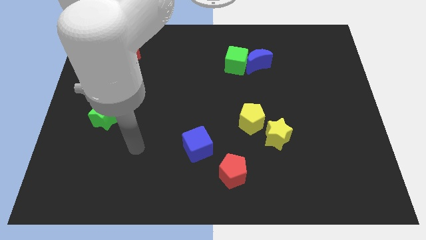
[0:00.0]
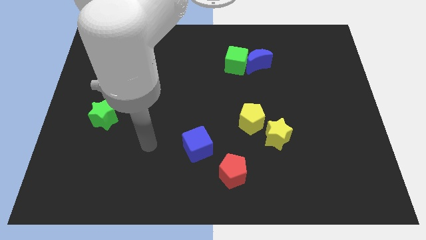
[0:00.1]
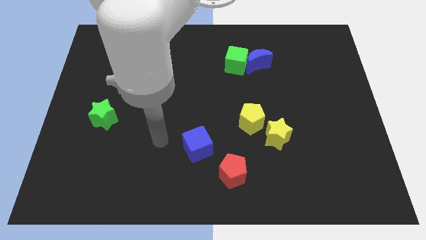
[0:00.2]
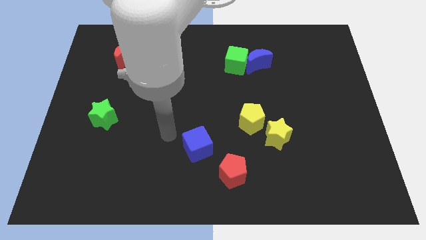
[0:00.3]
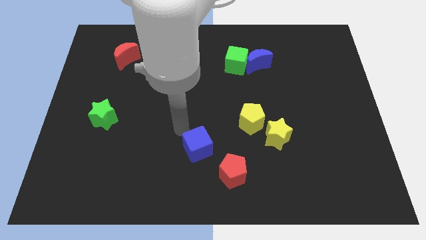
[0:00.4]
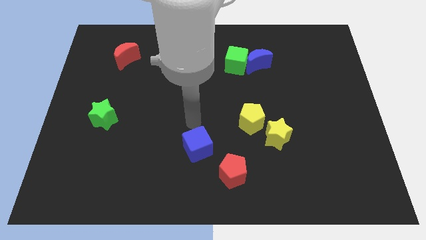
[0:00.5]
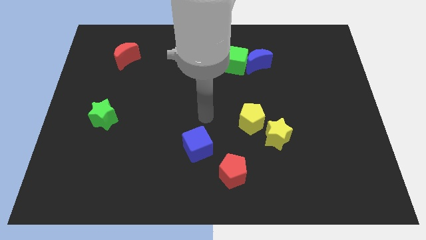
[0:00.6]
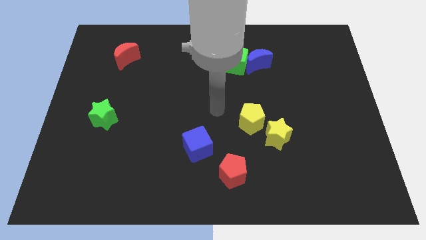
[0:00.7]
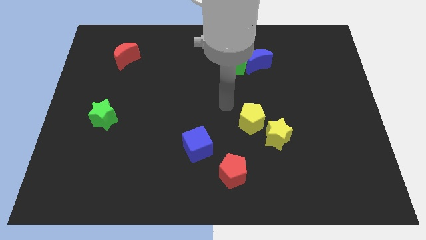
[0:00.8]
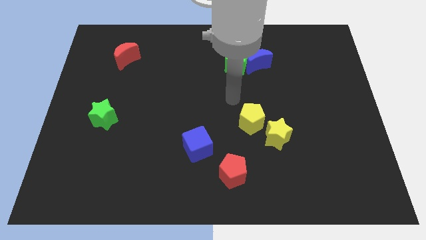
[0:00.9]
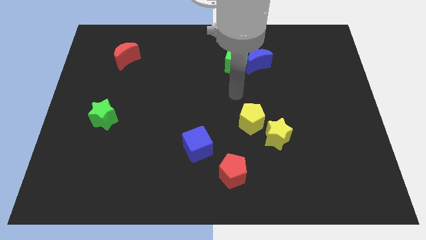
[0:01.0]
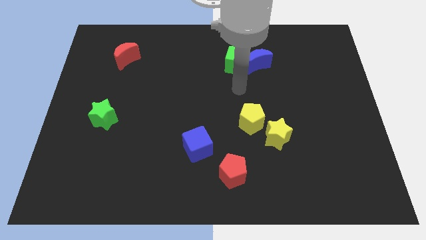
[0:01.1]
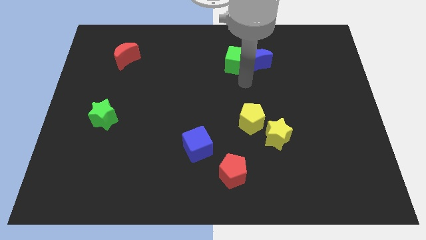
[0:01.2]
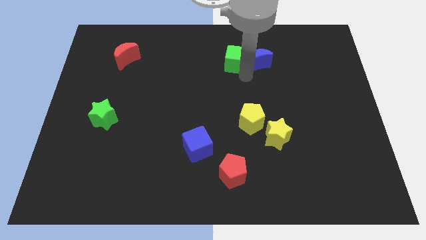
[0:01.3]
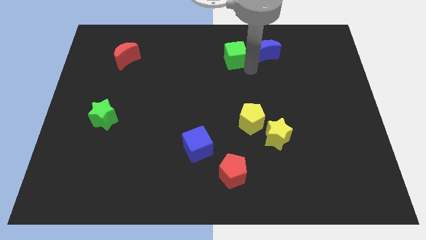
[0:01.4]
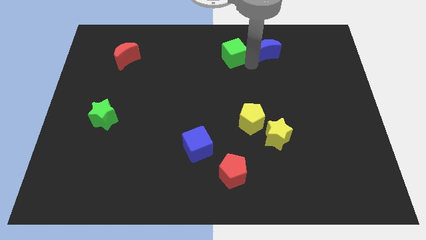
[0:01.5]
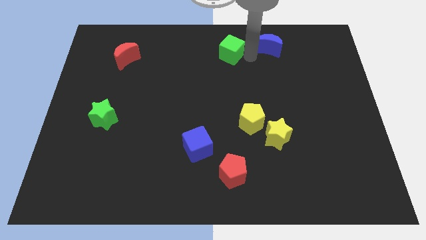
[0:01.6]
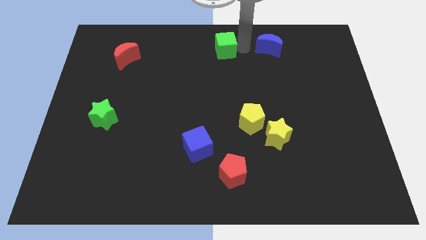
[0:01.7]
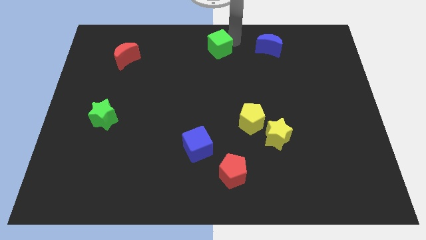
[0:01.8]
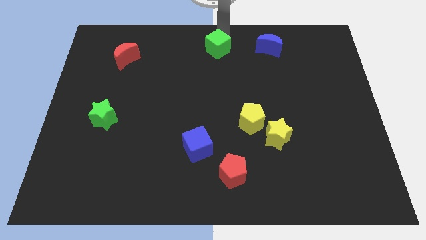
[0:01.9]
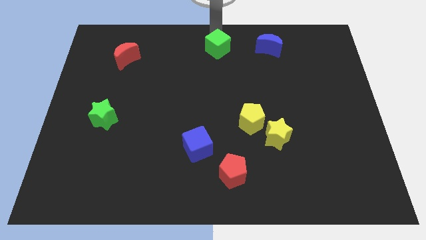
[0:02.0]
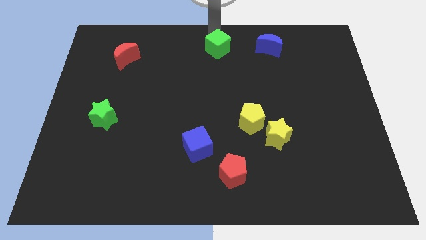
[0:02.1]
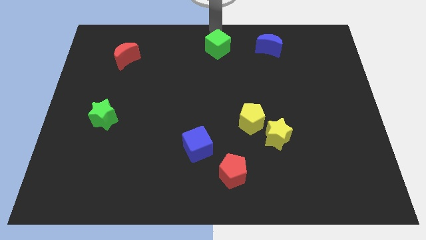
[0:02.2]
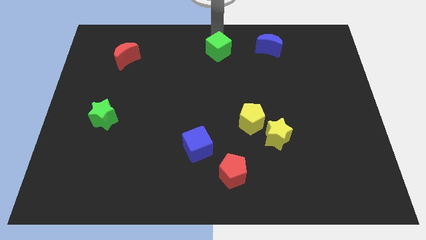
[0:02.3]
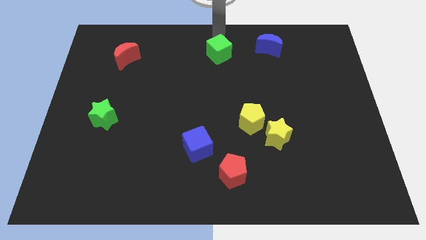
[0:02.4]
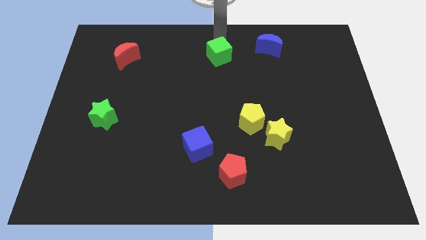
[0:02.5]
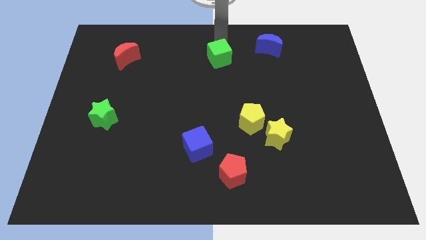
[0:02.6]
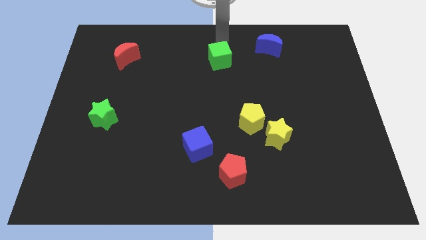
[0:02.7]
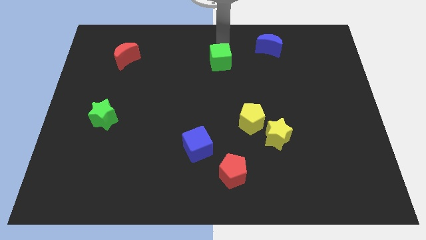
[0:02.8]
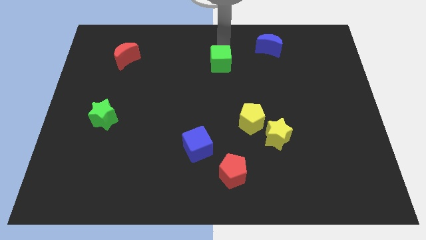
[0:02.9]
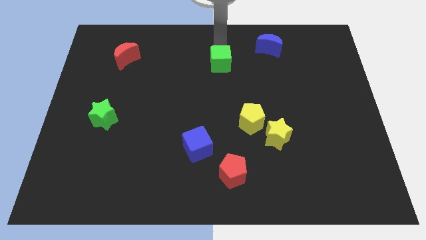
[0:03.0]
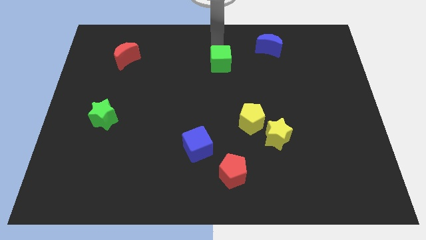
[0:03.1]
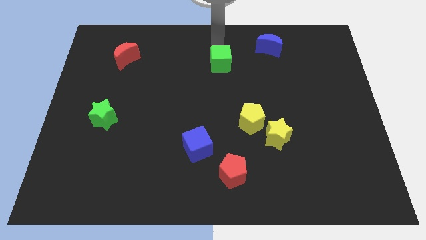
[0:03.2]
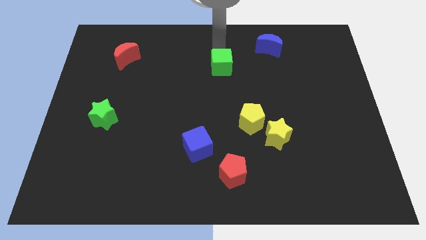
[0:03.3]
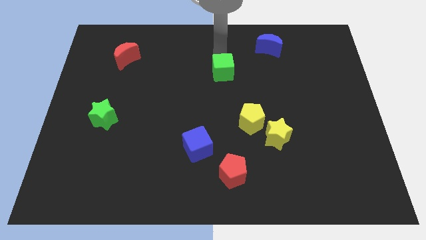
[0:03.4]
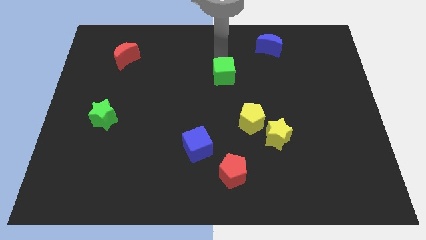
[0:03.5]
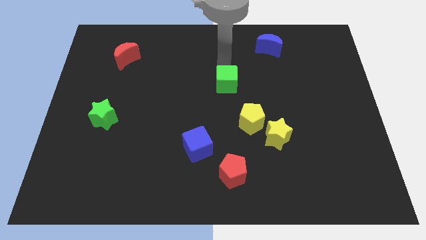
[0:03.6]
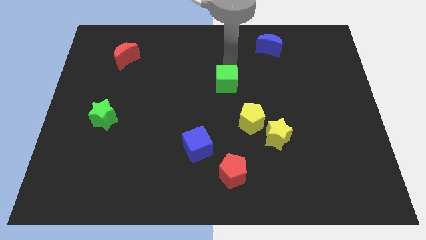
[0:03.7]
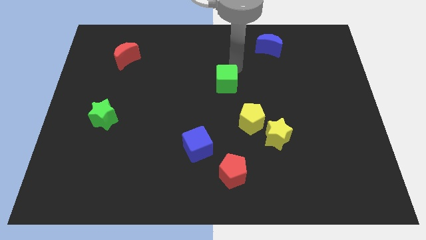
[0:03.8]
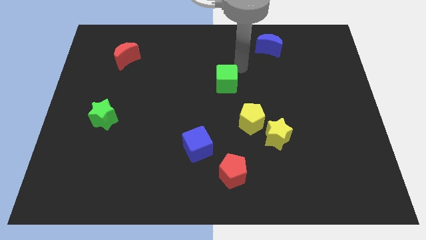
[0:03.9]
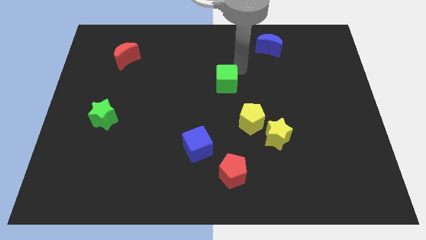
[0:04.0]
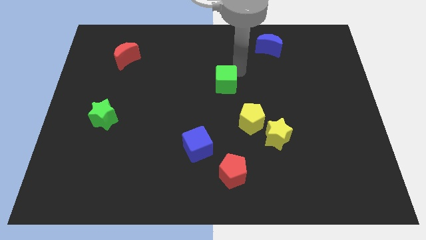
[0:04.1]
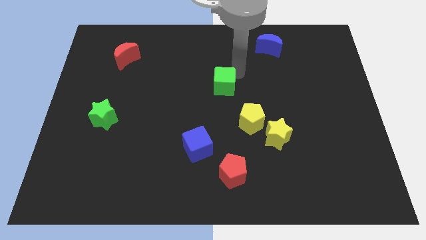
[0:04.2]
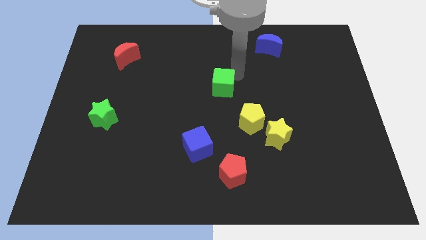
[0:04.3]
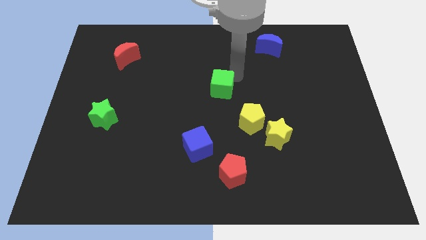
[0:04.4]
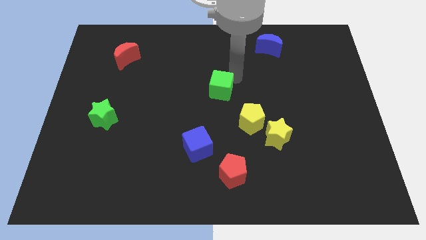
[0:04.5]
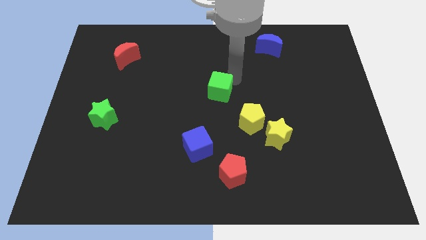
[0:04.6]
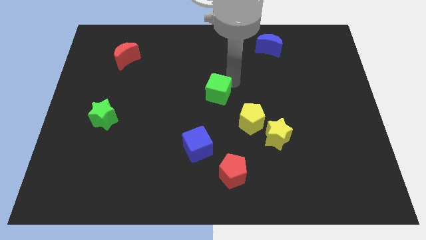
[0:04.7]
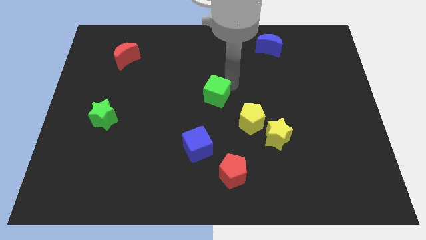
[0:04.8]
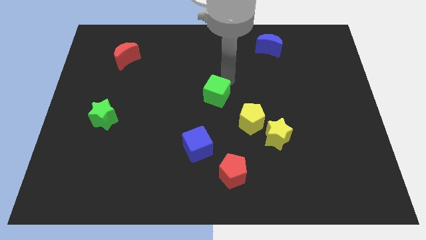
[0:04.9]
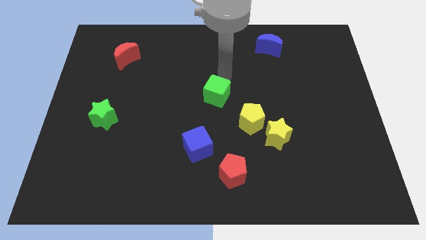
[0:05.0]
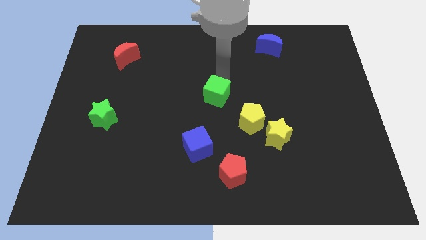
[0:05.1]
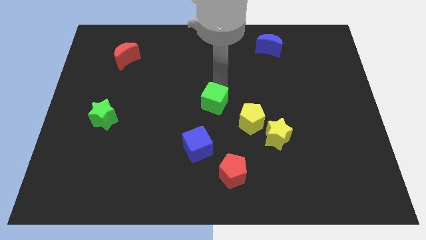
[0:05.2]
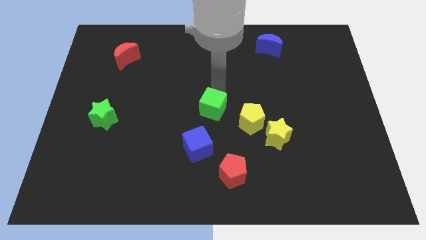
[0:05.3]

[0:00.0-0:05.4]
put the green cube left of the yellow pentagon

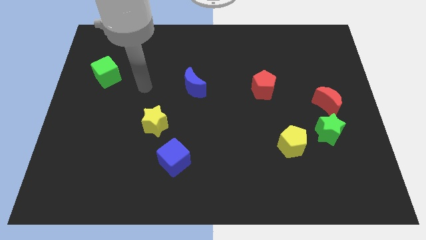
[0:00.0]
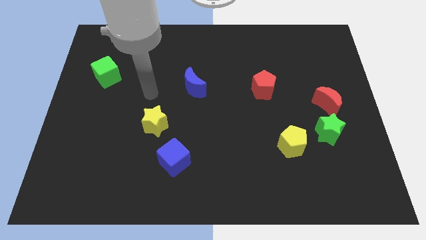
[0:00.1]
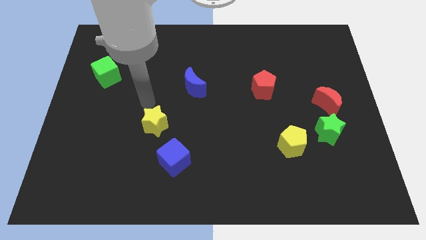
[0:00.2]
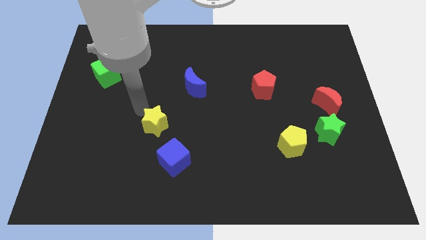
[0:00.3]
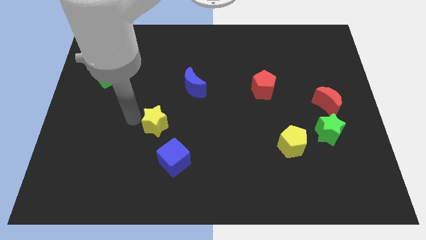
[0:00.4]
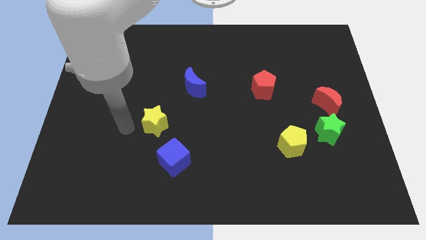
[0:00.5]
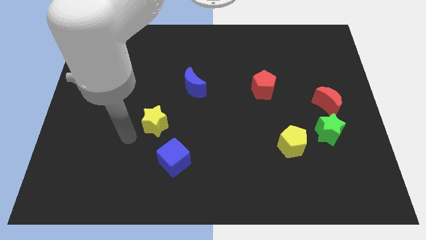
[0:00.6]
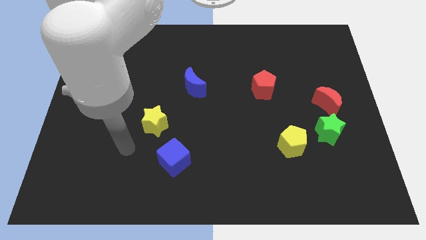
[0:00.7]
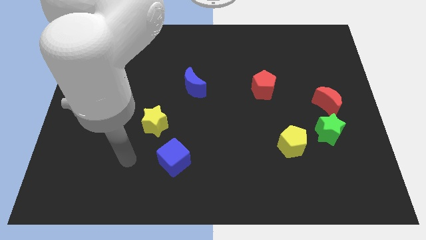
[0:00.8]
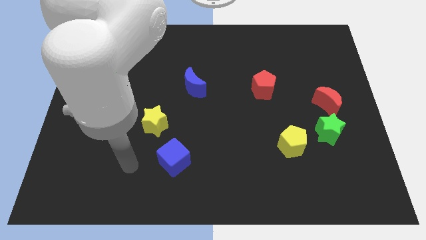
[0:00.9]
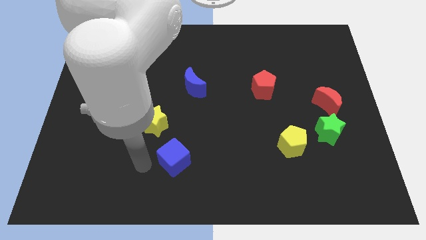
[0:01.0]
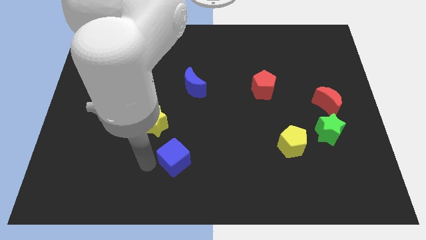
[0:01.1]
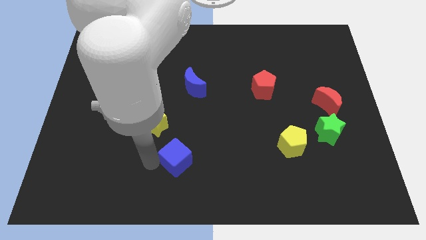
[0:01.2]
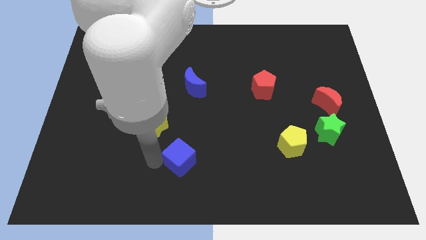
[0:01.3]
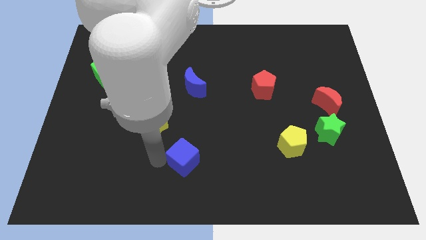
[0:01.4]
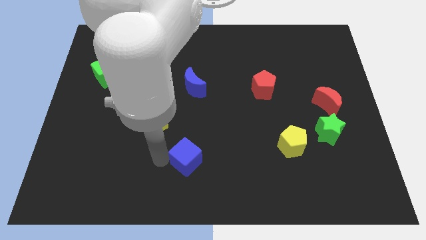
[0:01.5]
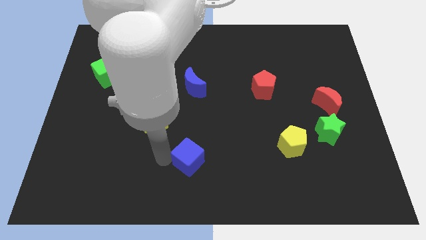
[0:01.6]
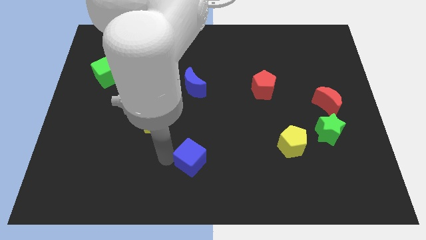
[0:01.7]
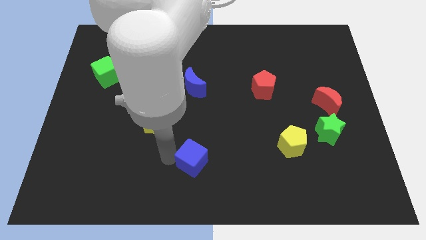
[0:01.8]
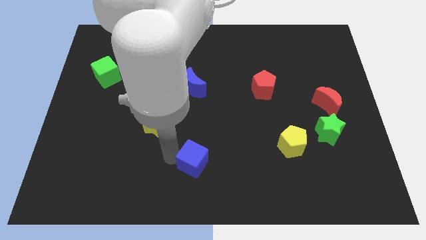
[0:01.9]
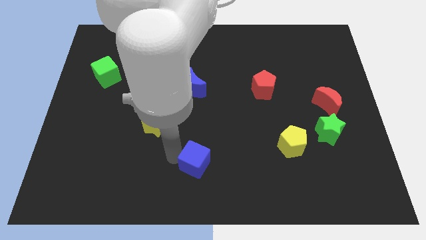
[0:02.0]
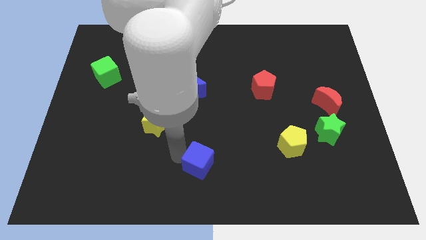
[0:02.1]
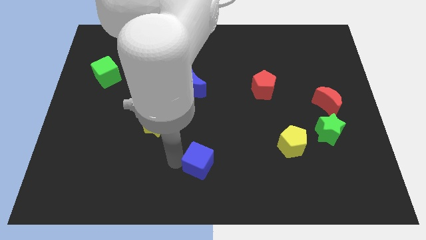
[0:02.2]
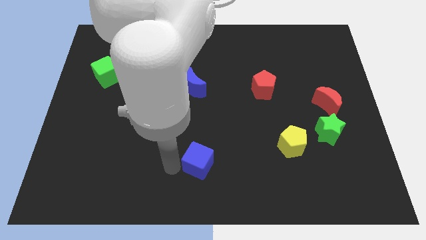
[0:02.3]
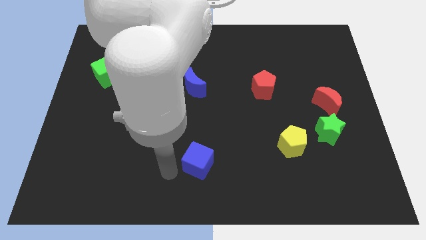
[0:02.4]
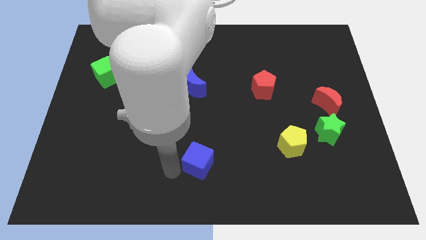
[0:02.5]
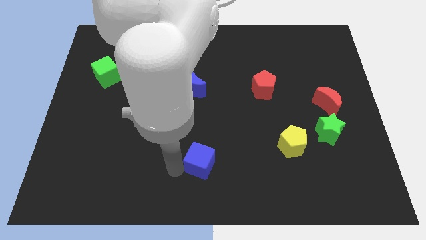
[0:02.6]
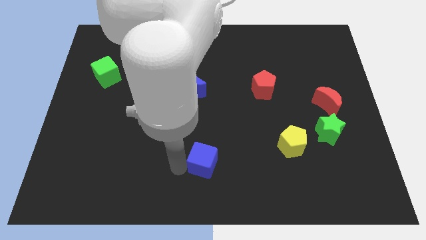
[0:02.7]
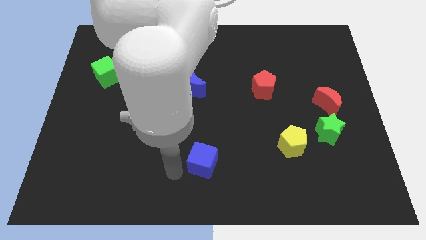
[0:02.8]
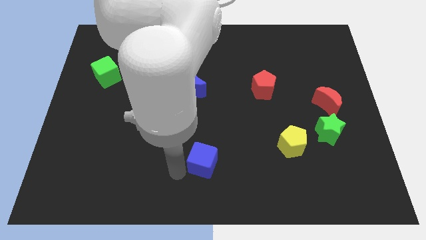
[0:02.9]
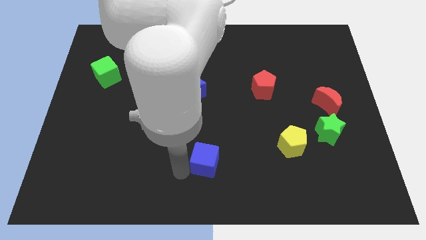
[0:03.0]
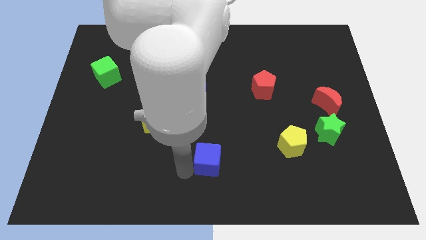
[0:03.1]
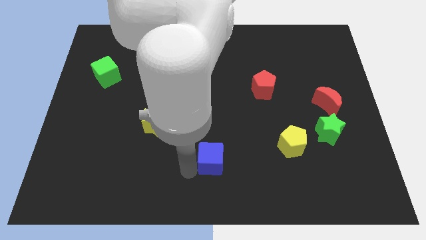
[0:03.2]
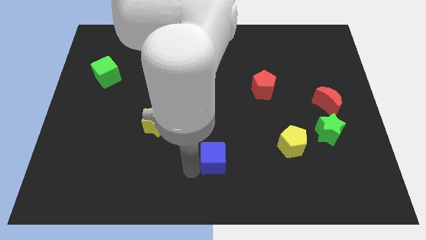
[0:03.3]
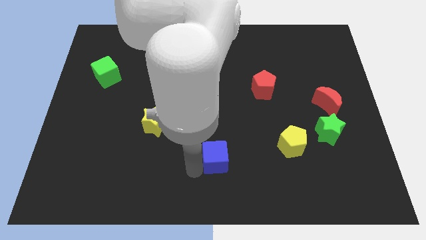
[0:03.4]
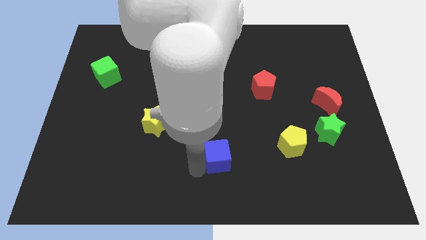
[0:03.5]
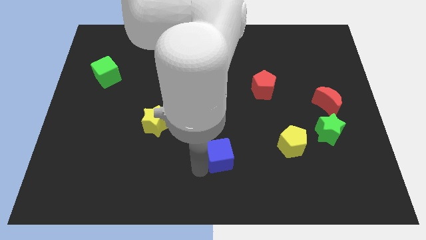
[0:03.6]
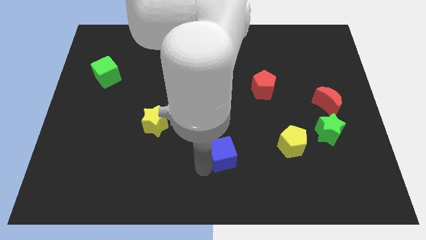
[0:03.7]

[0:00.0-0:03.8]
slide the blue cube to the left of the yellow pentagon
